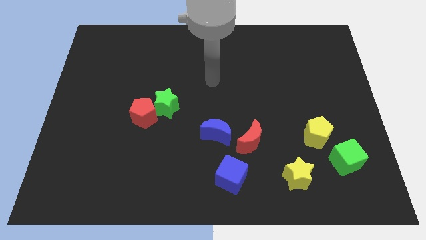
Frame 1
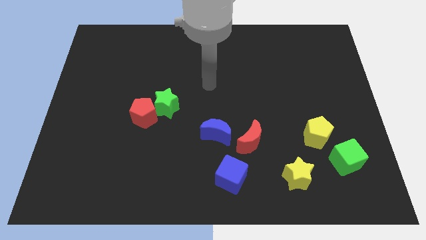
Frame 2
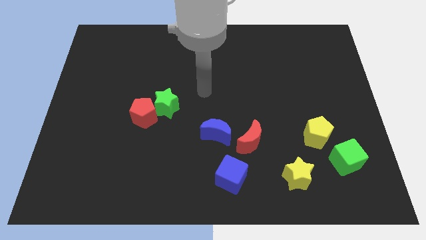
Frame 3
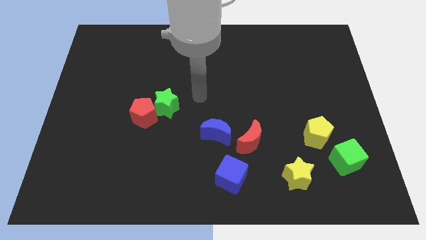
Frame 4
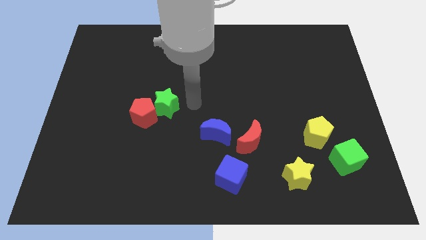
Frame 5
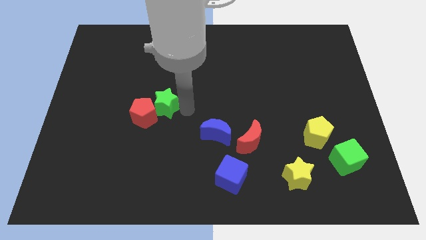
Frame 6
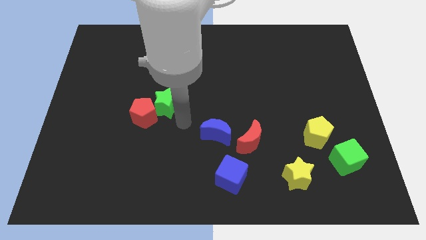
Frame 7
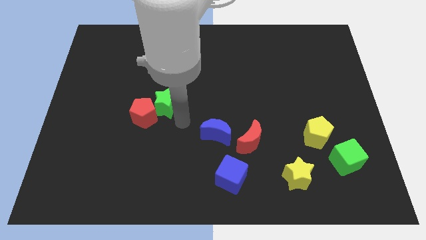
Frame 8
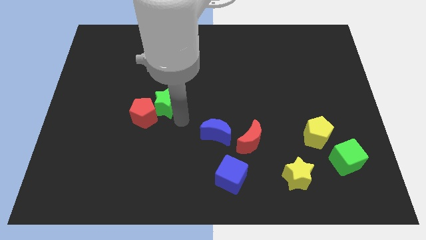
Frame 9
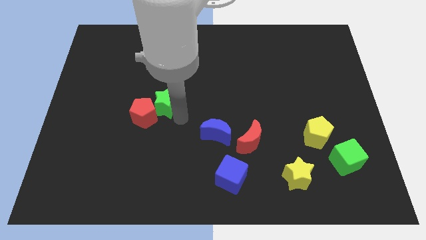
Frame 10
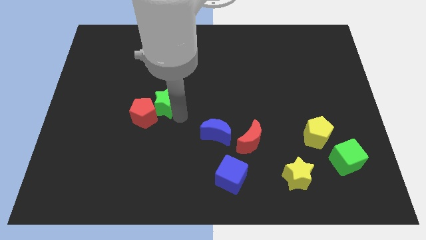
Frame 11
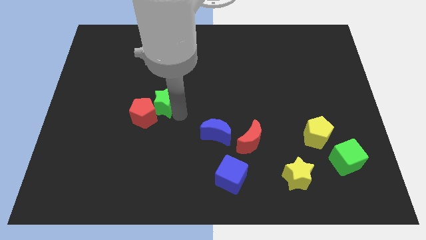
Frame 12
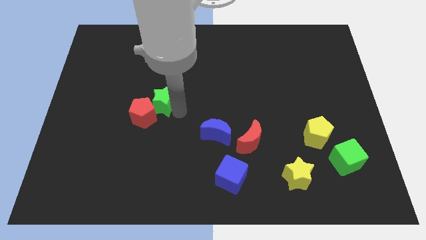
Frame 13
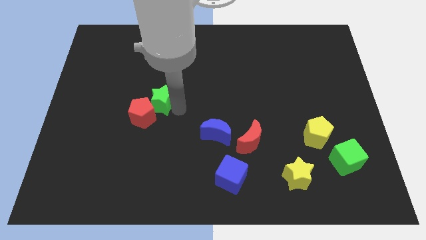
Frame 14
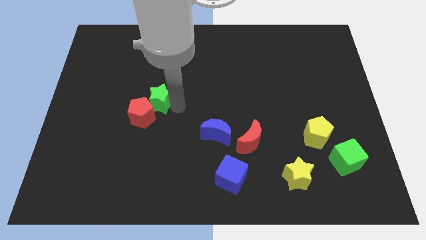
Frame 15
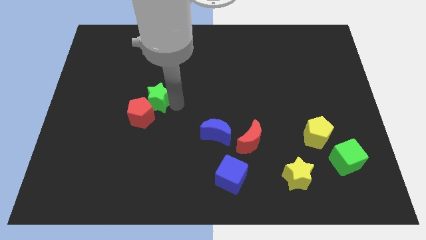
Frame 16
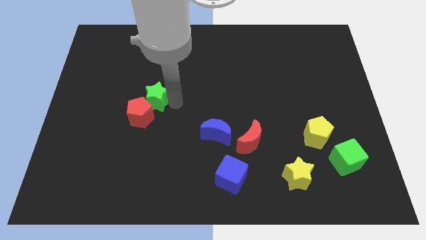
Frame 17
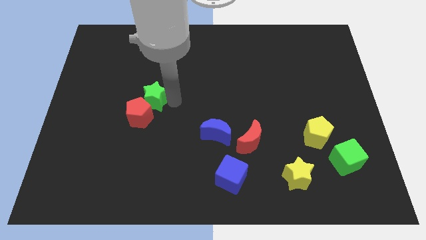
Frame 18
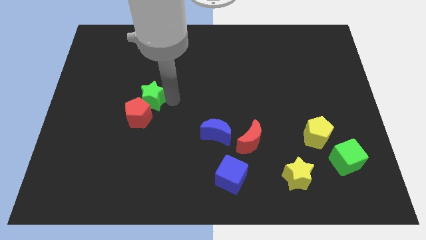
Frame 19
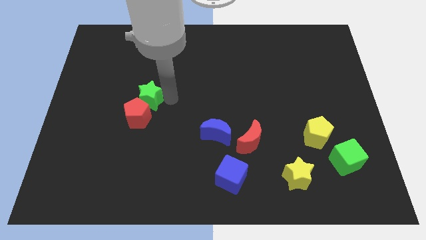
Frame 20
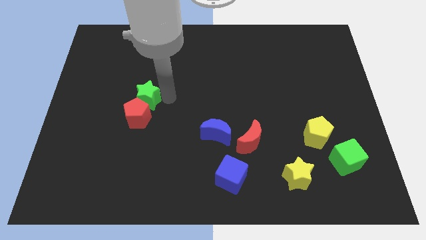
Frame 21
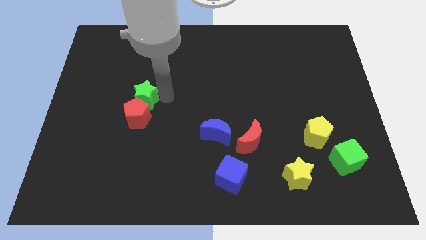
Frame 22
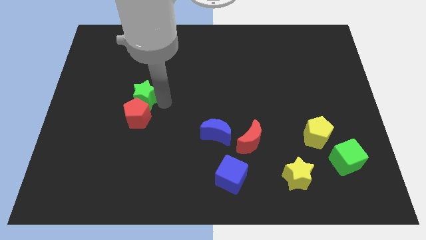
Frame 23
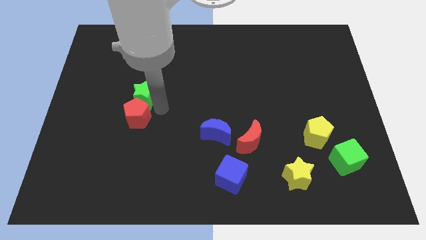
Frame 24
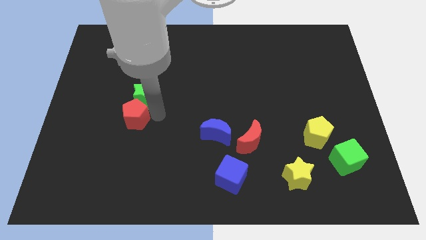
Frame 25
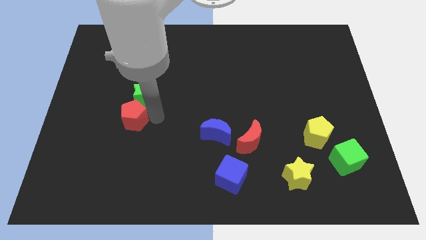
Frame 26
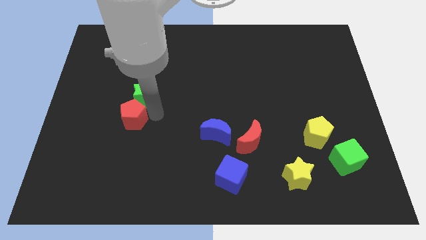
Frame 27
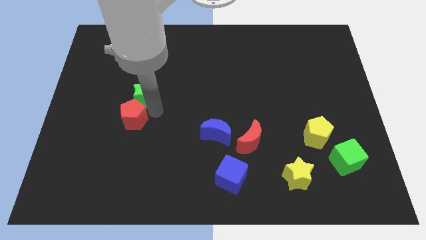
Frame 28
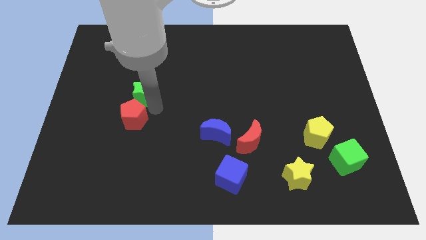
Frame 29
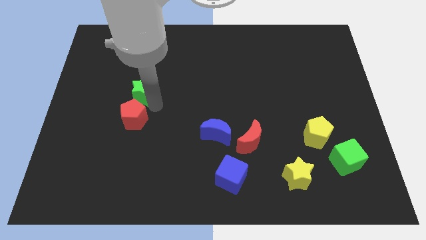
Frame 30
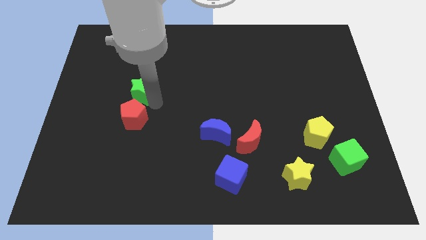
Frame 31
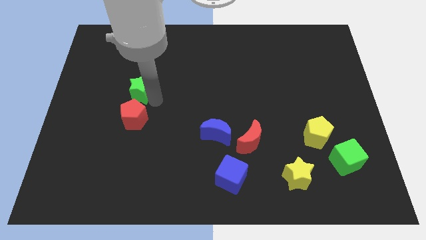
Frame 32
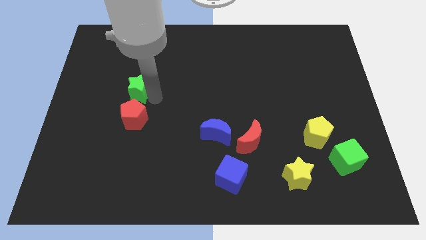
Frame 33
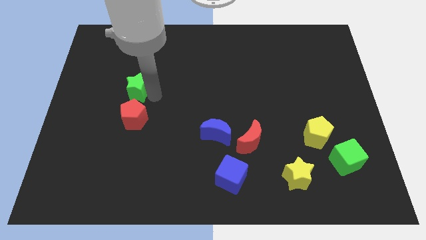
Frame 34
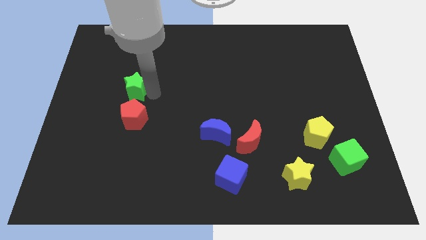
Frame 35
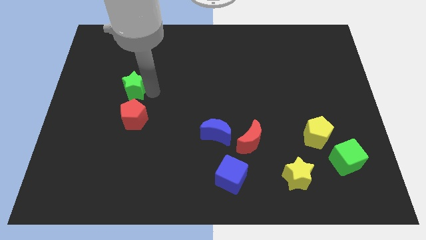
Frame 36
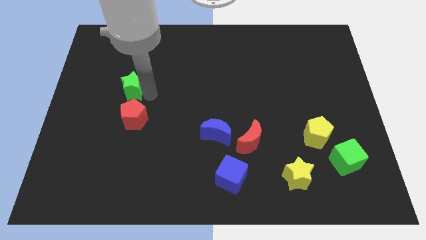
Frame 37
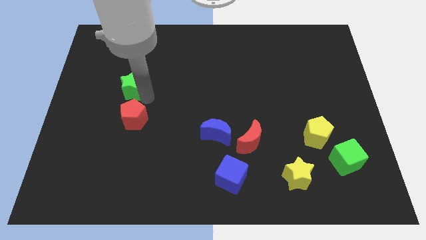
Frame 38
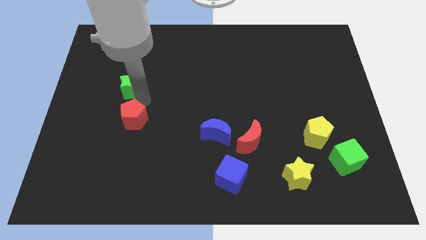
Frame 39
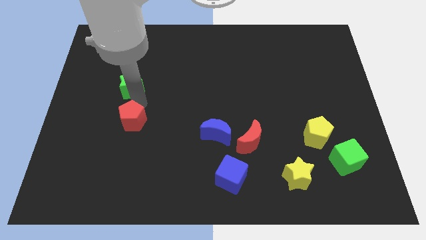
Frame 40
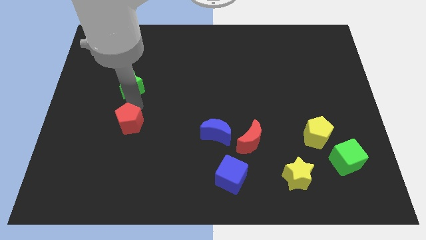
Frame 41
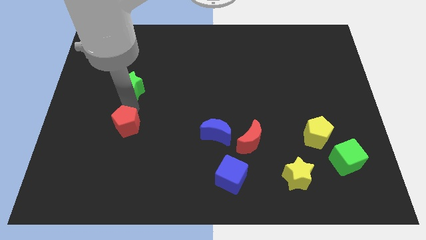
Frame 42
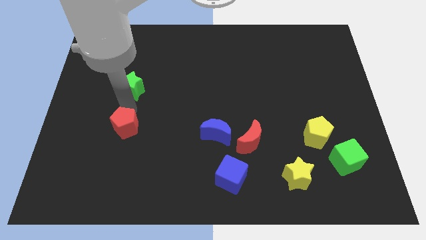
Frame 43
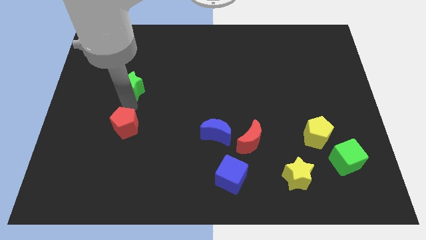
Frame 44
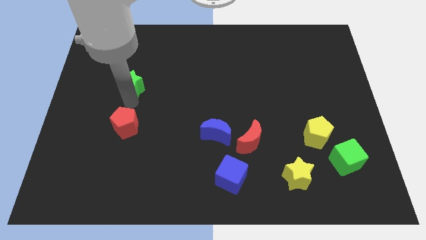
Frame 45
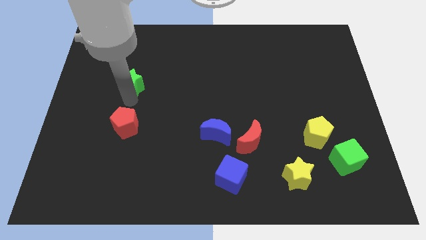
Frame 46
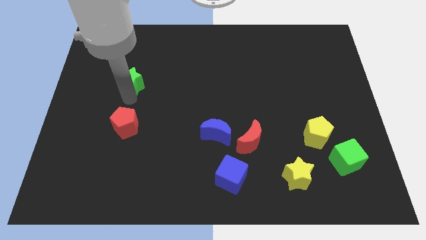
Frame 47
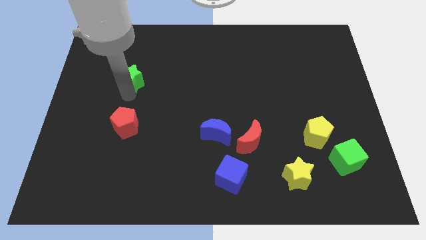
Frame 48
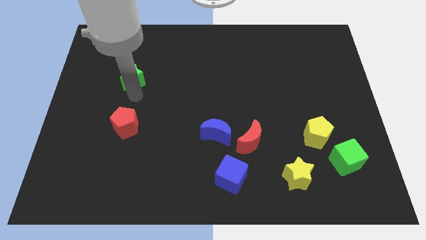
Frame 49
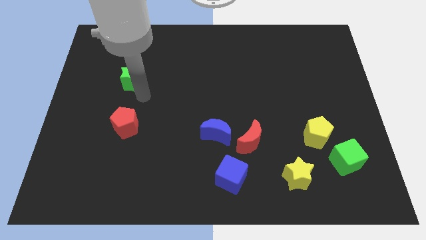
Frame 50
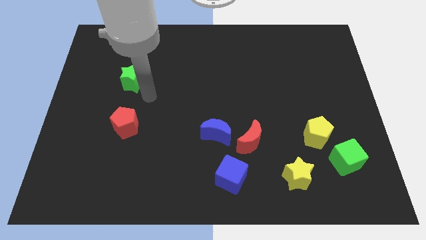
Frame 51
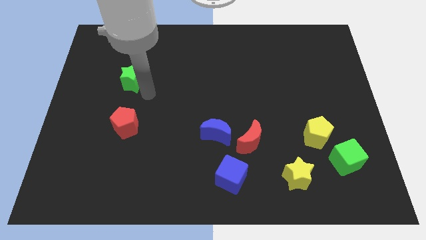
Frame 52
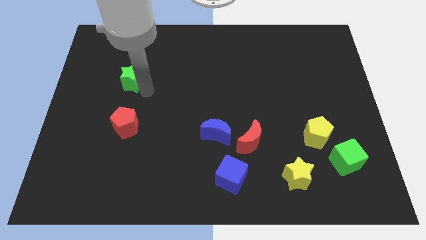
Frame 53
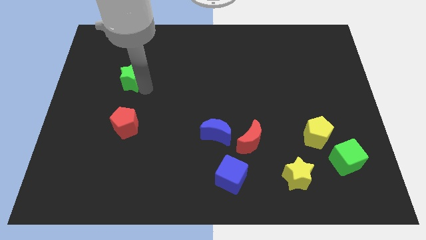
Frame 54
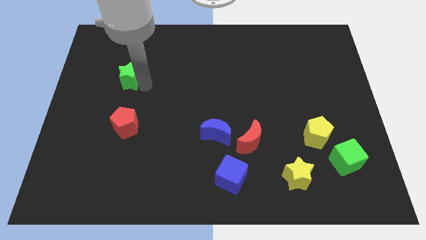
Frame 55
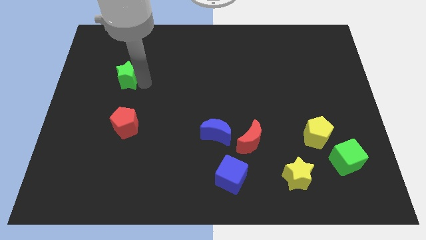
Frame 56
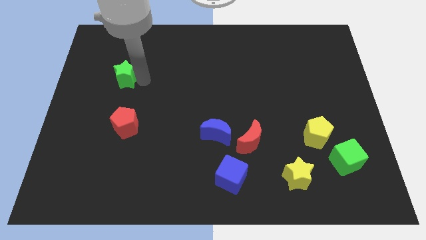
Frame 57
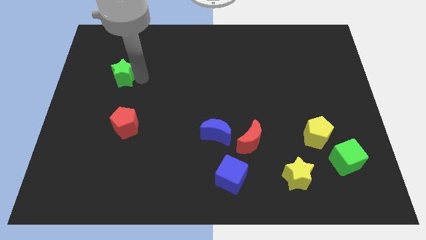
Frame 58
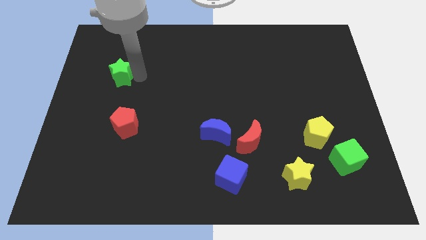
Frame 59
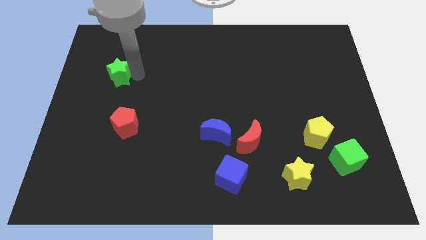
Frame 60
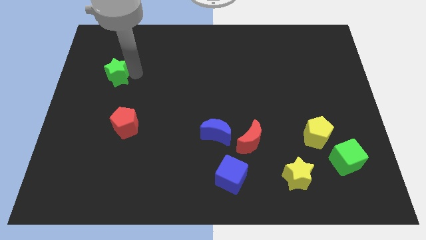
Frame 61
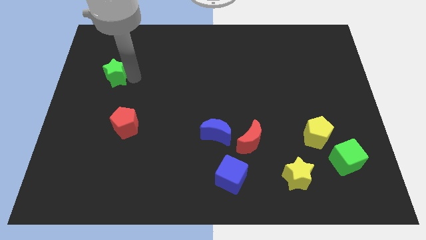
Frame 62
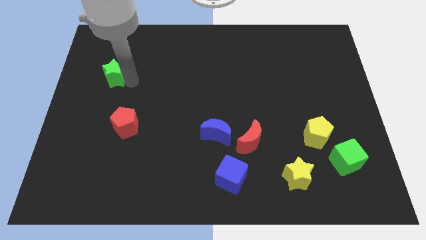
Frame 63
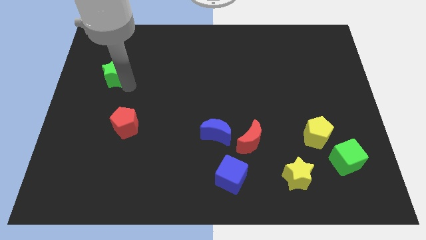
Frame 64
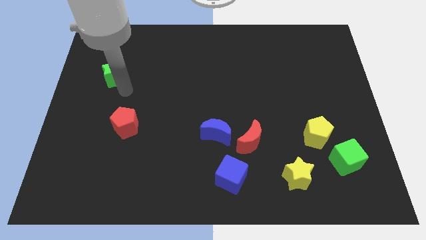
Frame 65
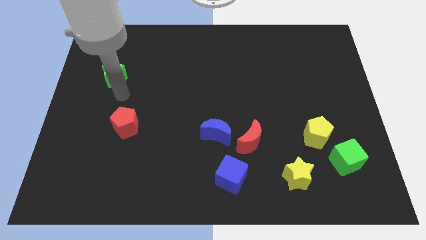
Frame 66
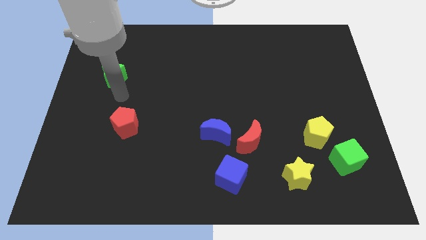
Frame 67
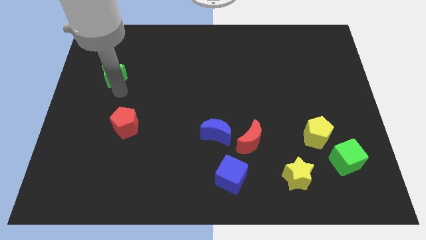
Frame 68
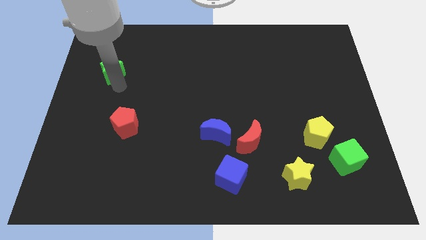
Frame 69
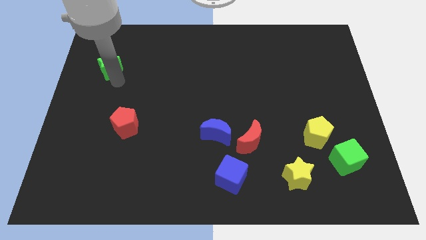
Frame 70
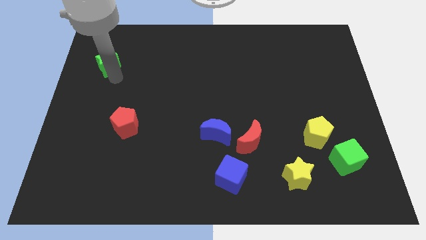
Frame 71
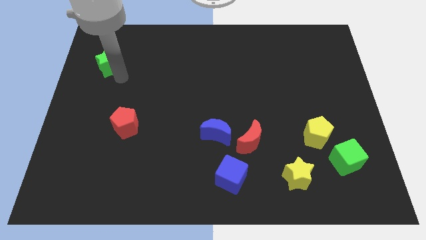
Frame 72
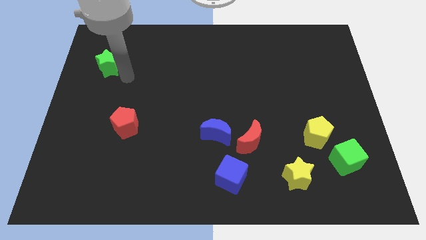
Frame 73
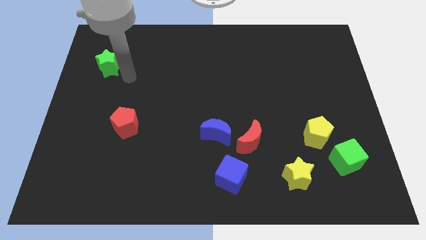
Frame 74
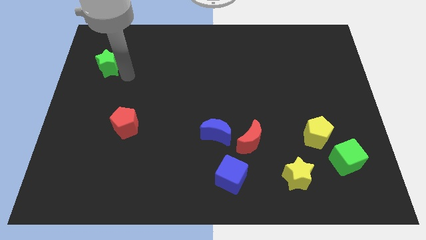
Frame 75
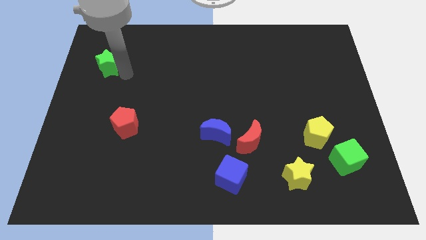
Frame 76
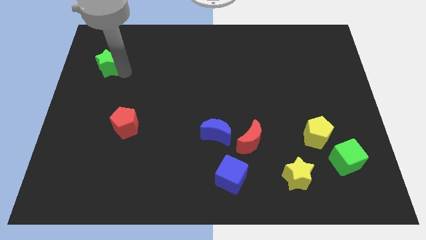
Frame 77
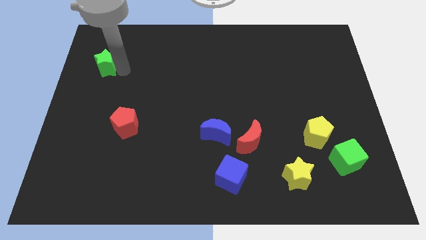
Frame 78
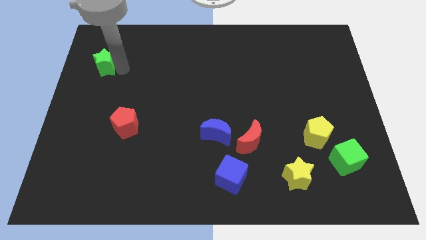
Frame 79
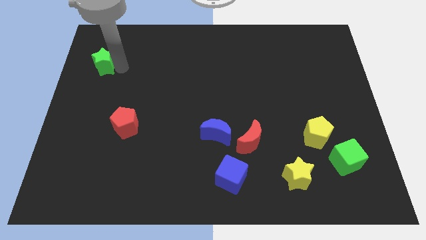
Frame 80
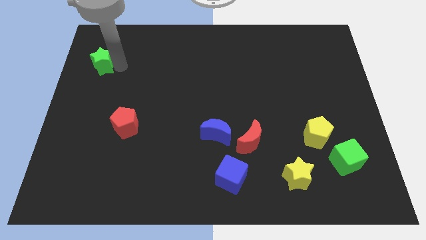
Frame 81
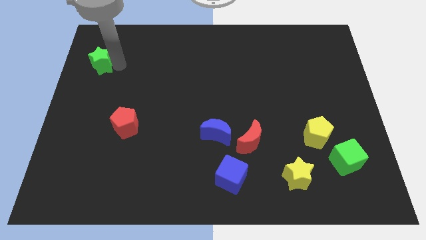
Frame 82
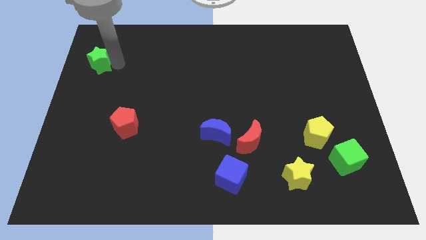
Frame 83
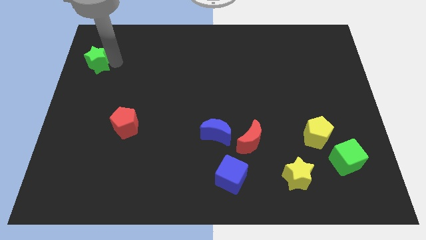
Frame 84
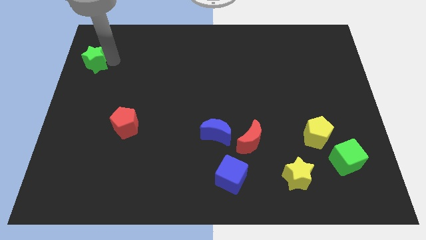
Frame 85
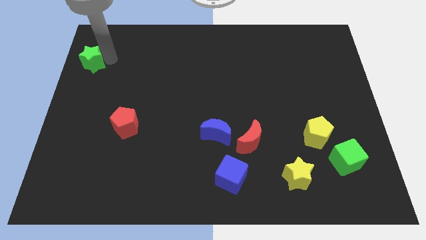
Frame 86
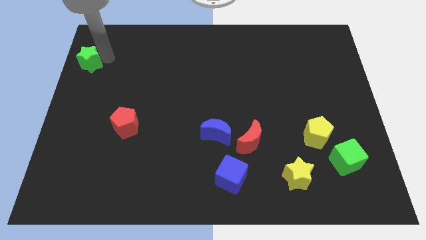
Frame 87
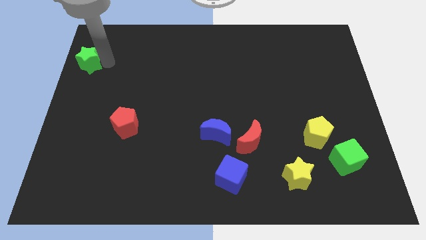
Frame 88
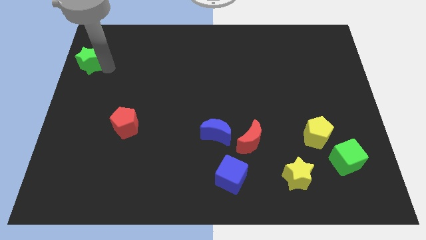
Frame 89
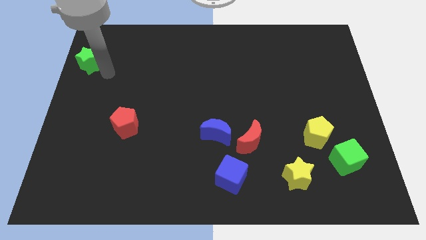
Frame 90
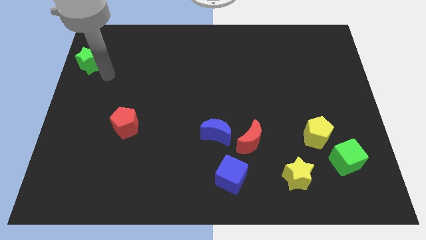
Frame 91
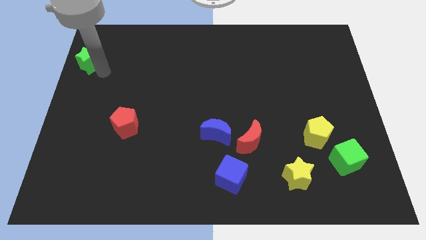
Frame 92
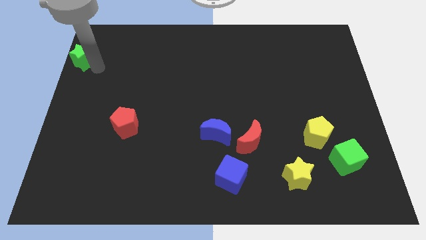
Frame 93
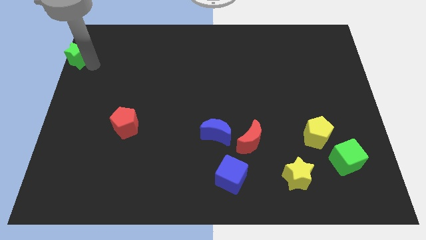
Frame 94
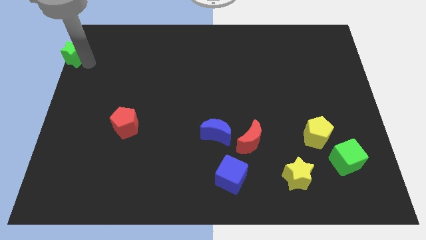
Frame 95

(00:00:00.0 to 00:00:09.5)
slide the green star to the top left of the board
